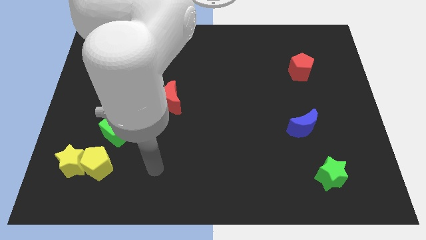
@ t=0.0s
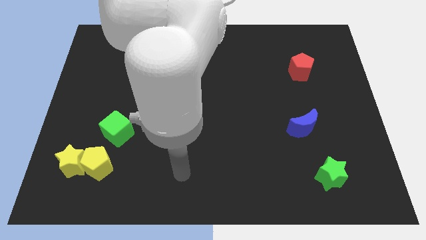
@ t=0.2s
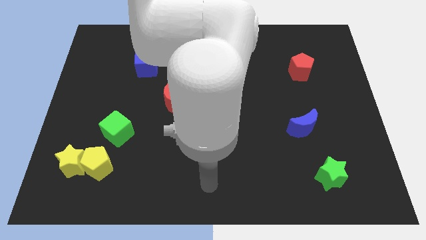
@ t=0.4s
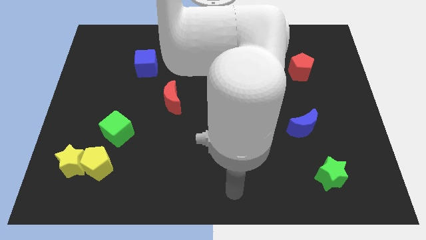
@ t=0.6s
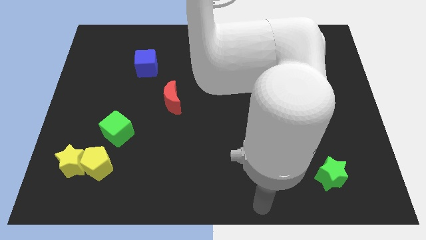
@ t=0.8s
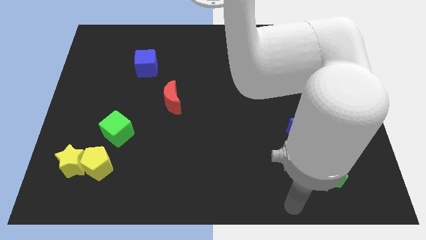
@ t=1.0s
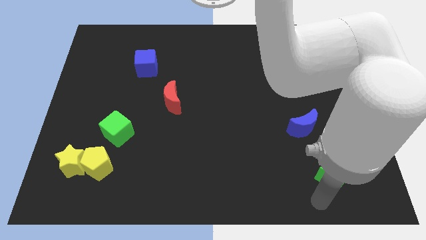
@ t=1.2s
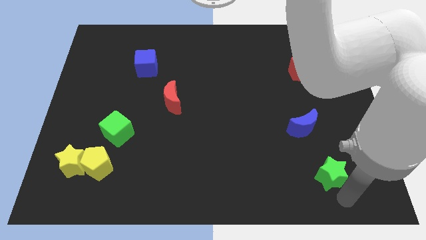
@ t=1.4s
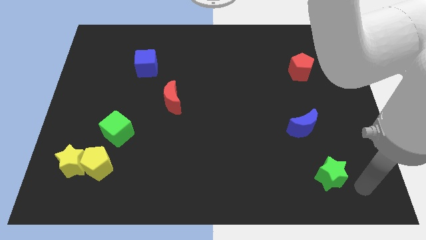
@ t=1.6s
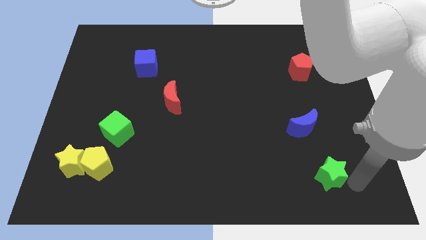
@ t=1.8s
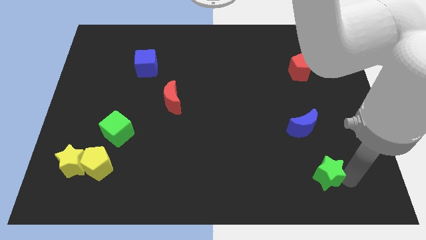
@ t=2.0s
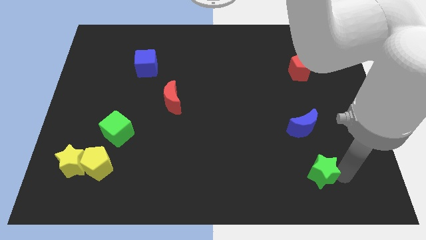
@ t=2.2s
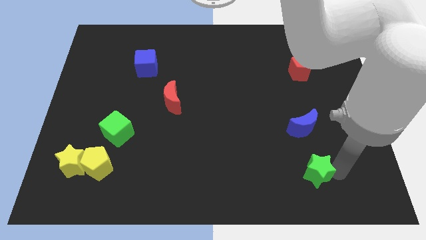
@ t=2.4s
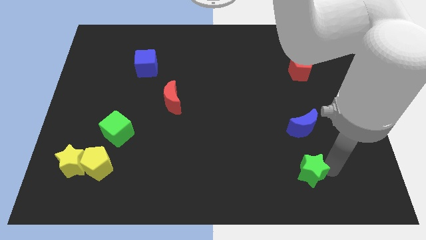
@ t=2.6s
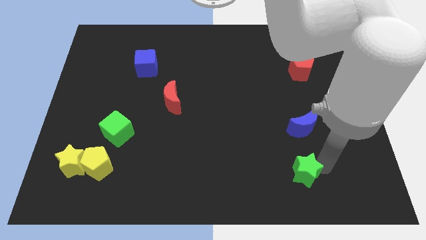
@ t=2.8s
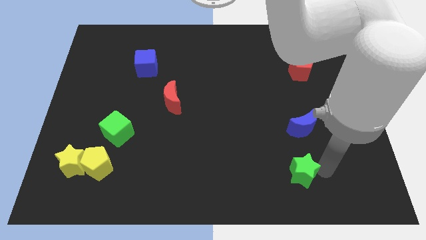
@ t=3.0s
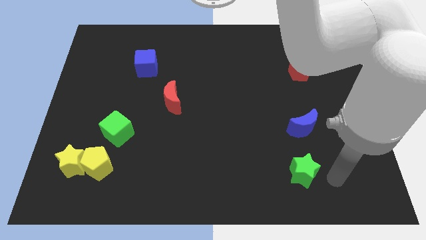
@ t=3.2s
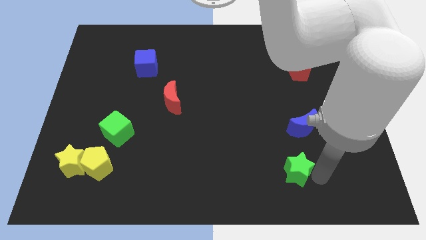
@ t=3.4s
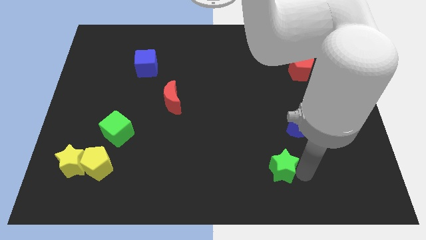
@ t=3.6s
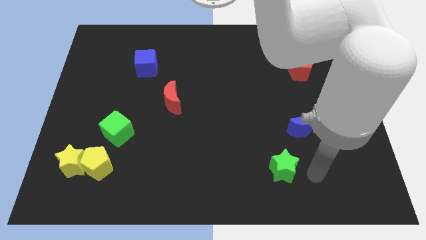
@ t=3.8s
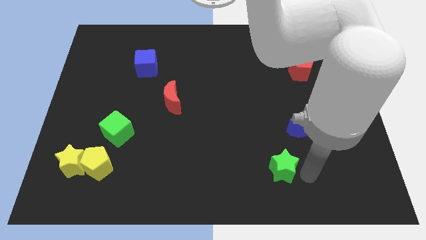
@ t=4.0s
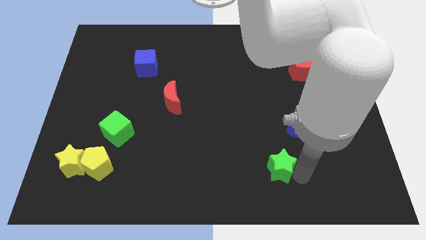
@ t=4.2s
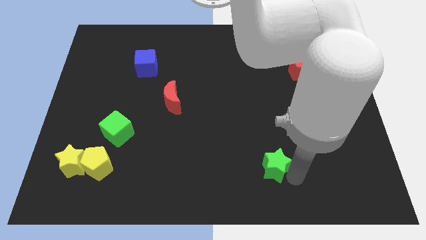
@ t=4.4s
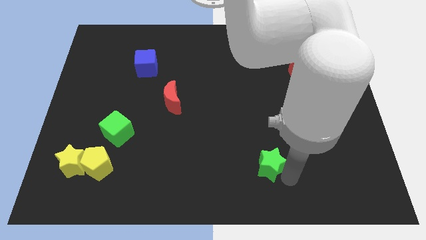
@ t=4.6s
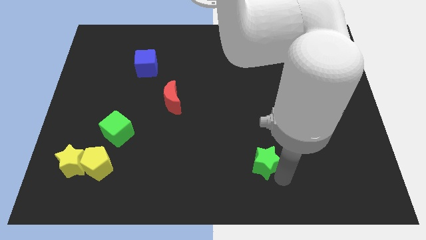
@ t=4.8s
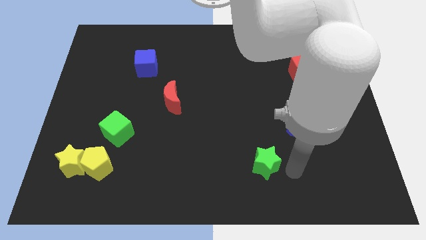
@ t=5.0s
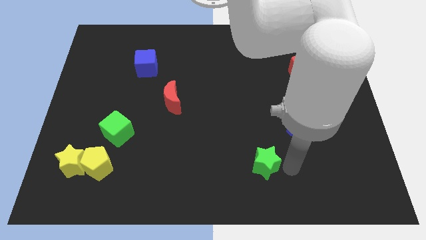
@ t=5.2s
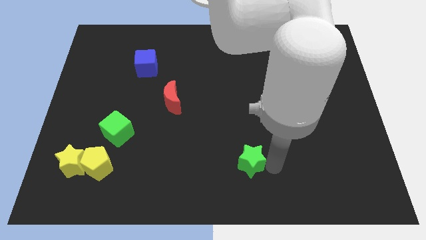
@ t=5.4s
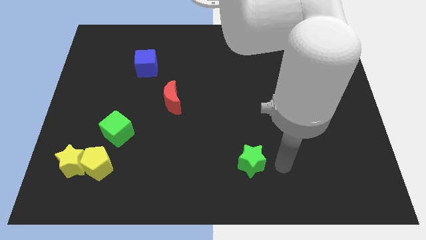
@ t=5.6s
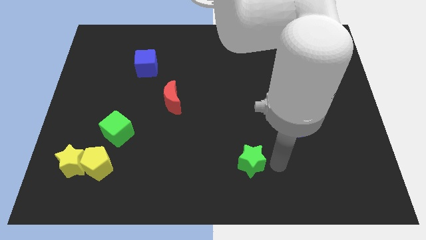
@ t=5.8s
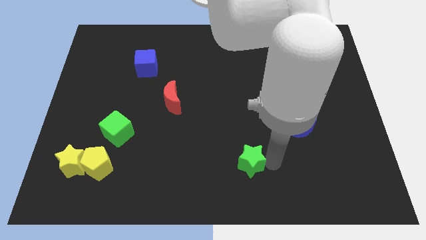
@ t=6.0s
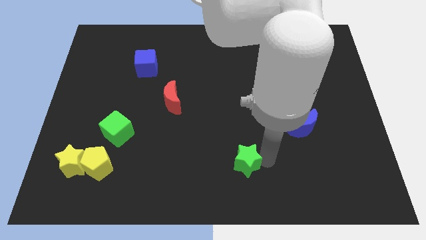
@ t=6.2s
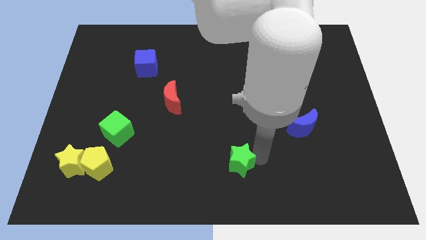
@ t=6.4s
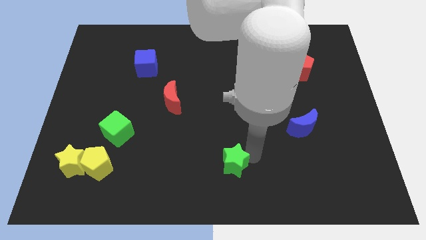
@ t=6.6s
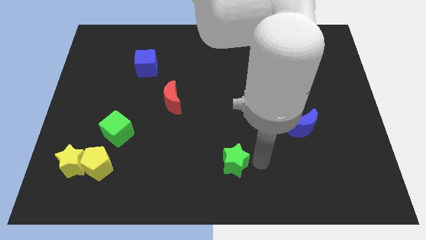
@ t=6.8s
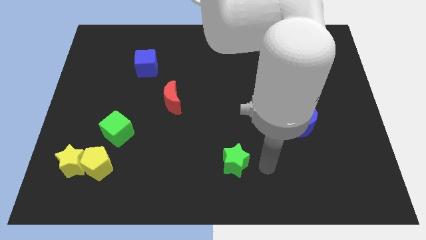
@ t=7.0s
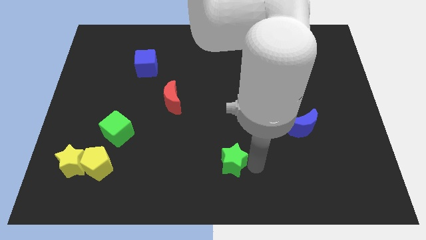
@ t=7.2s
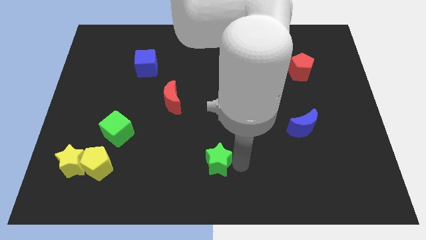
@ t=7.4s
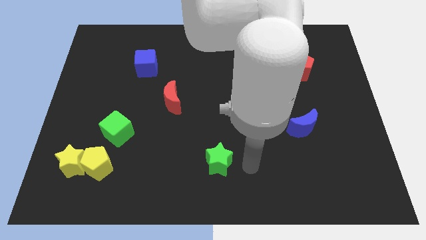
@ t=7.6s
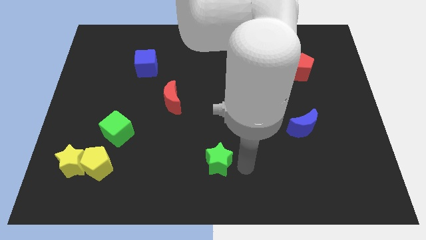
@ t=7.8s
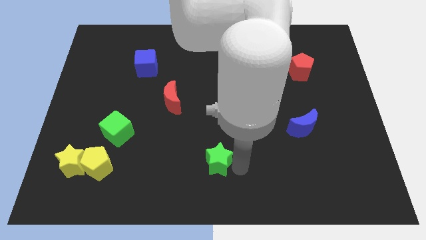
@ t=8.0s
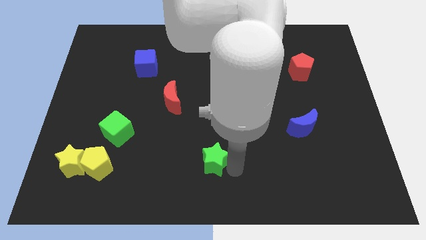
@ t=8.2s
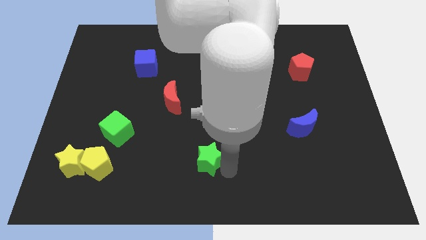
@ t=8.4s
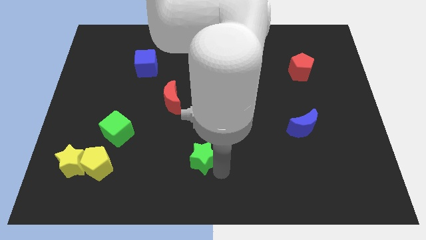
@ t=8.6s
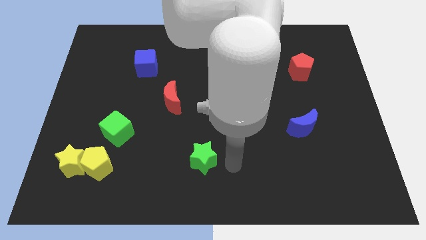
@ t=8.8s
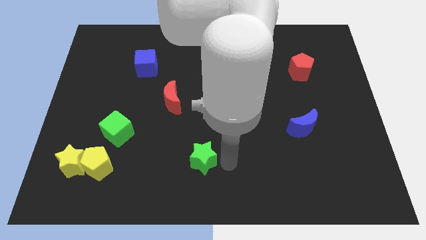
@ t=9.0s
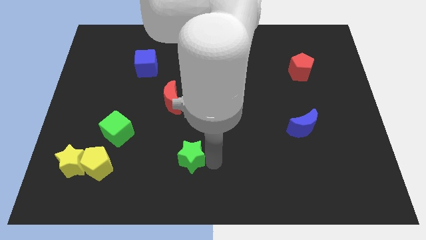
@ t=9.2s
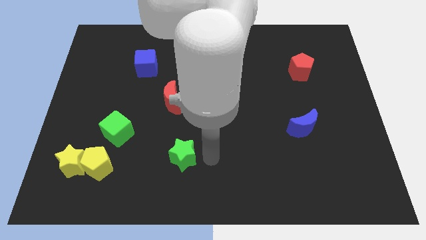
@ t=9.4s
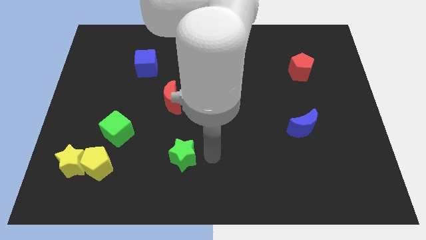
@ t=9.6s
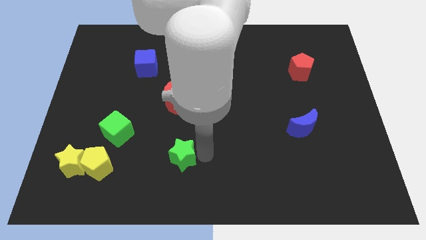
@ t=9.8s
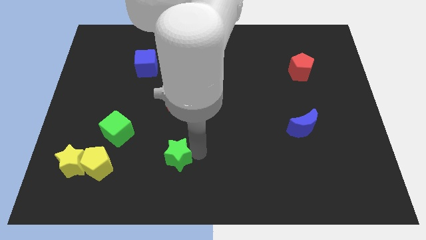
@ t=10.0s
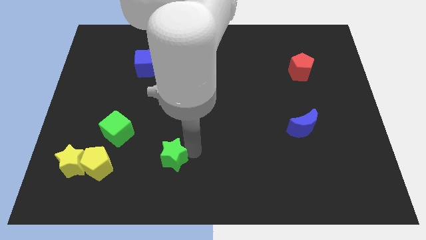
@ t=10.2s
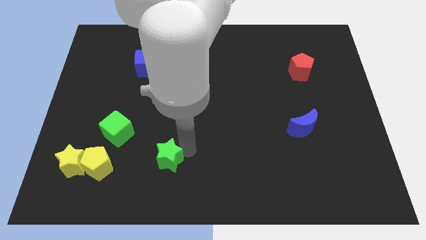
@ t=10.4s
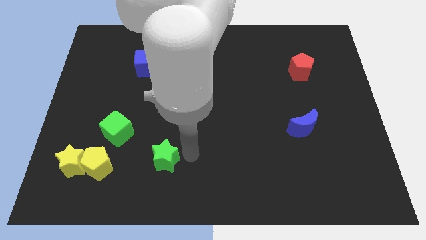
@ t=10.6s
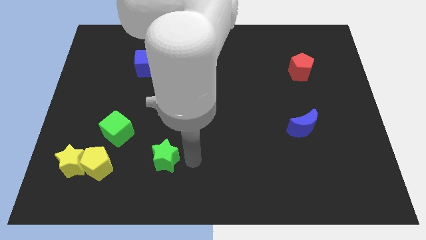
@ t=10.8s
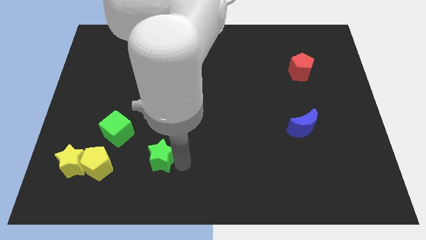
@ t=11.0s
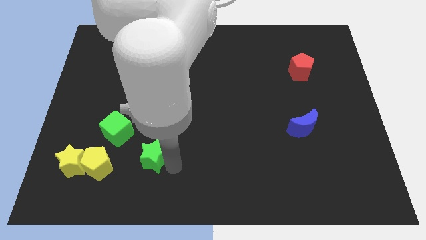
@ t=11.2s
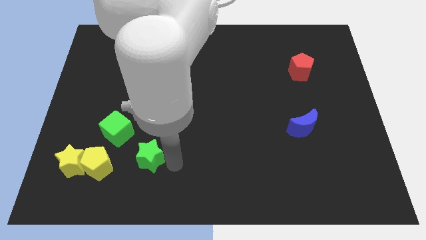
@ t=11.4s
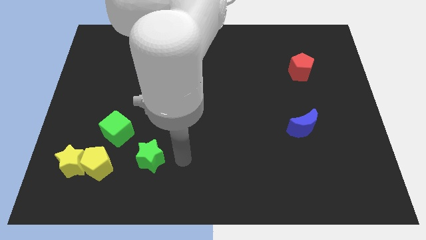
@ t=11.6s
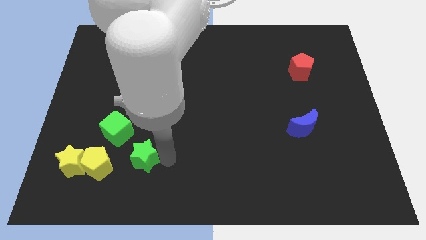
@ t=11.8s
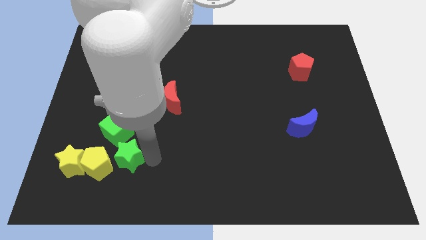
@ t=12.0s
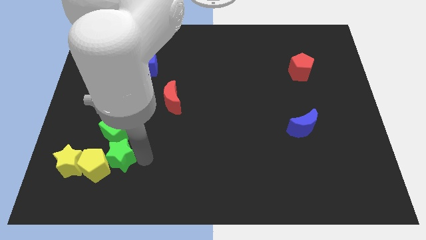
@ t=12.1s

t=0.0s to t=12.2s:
put the green star next to the yellow pentagon
